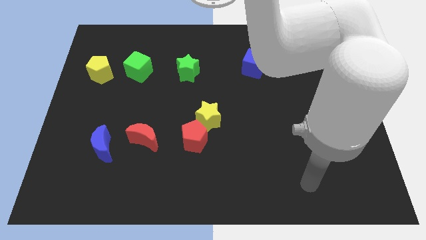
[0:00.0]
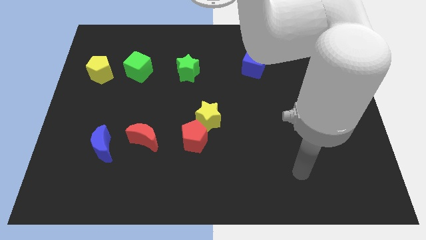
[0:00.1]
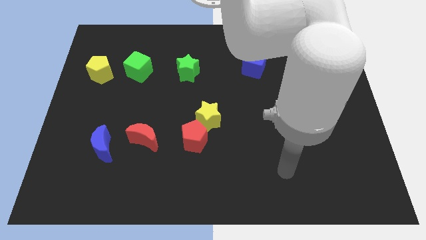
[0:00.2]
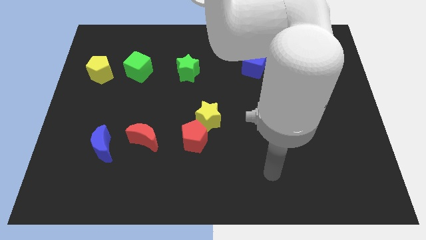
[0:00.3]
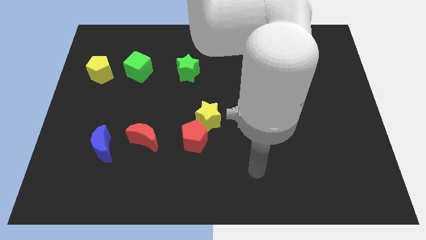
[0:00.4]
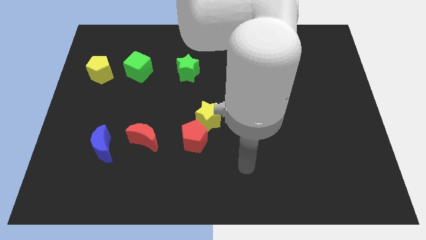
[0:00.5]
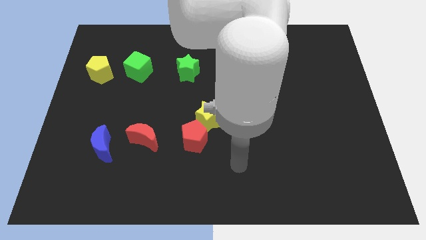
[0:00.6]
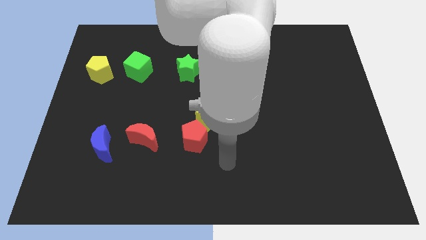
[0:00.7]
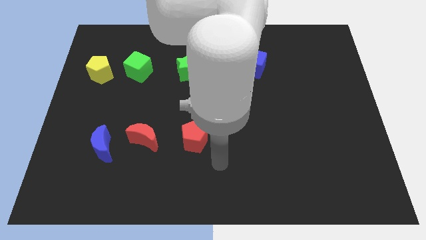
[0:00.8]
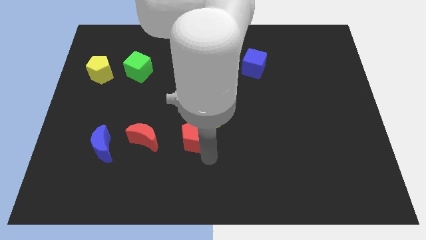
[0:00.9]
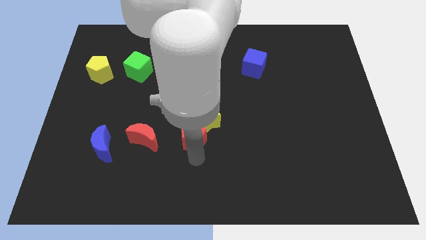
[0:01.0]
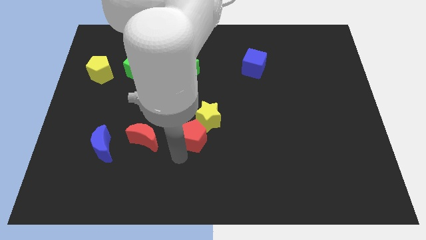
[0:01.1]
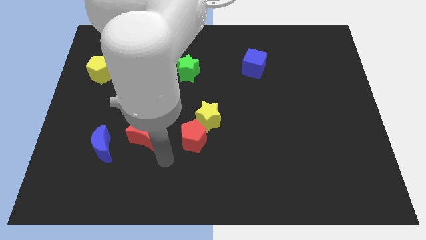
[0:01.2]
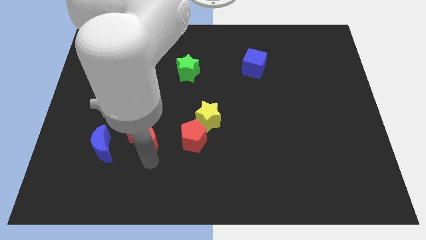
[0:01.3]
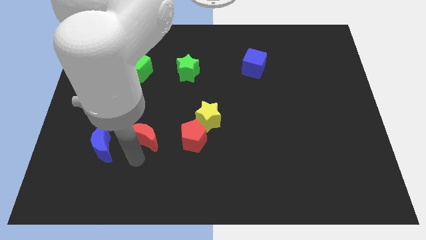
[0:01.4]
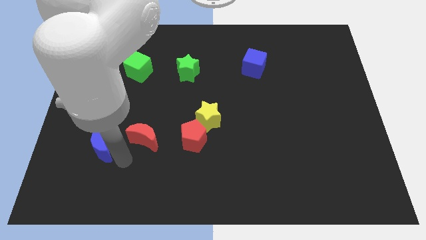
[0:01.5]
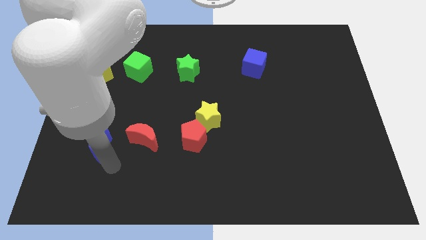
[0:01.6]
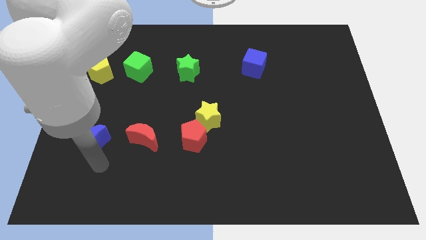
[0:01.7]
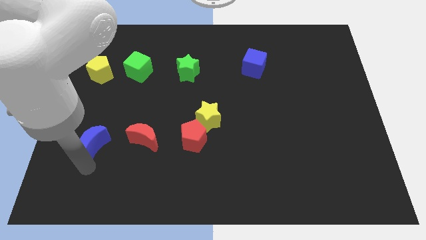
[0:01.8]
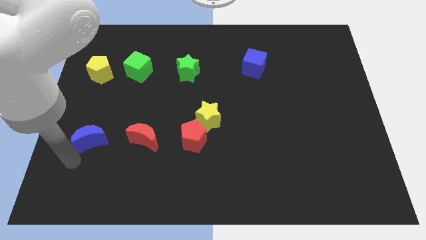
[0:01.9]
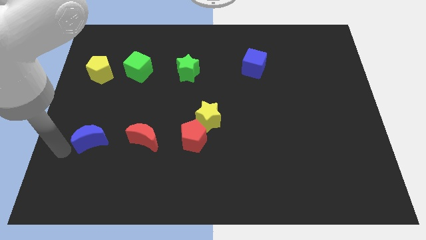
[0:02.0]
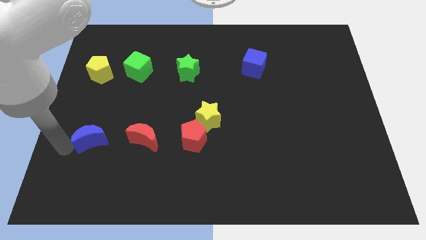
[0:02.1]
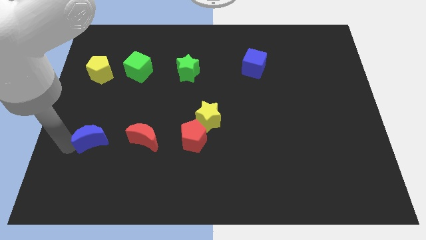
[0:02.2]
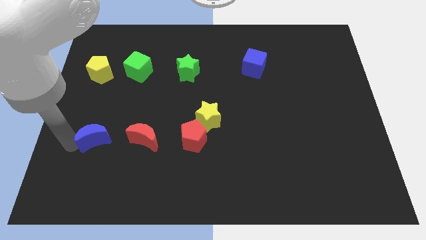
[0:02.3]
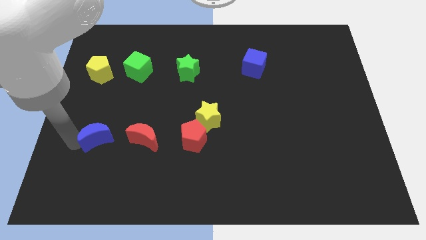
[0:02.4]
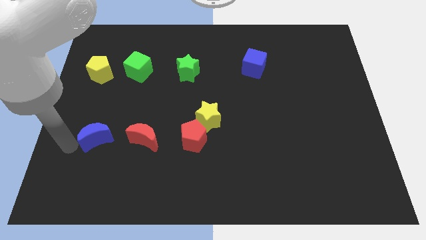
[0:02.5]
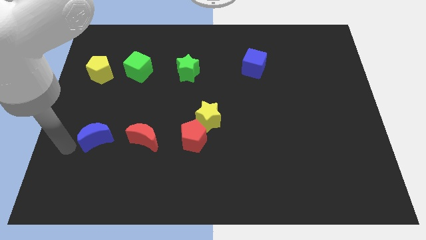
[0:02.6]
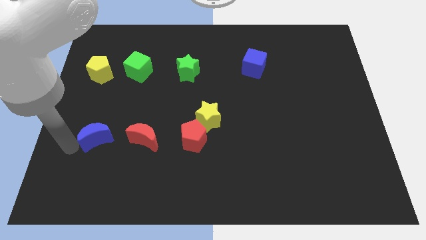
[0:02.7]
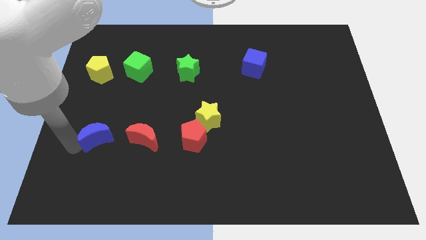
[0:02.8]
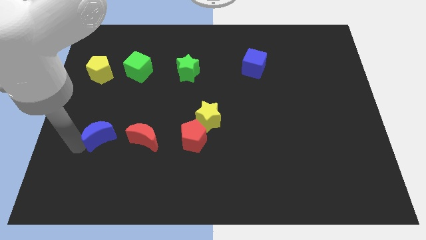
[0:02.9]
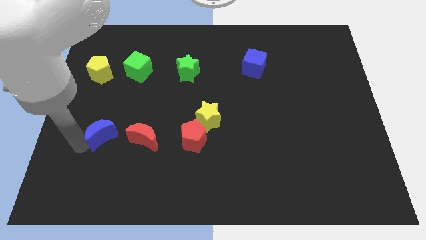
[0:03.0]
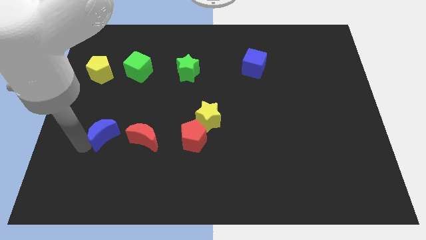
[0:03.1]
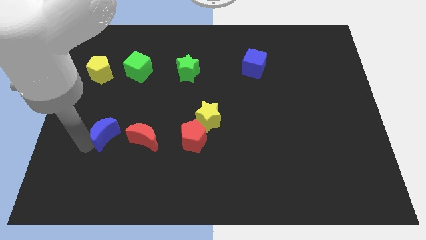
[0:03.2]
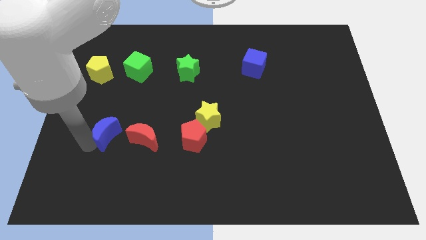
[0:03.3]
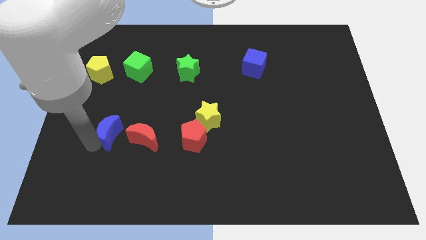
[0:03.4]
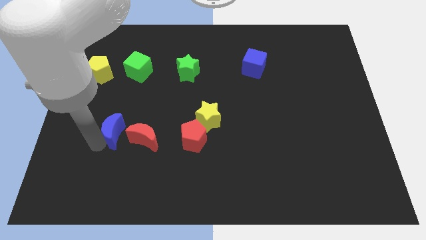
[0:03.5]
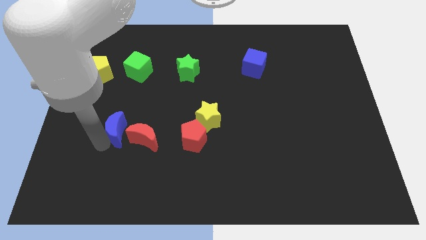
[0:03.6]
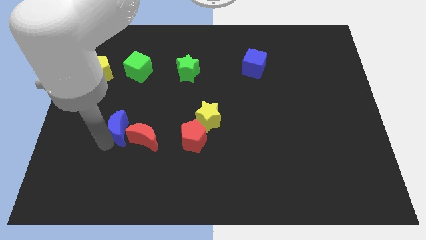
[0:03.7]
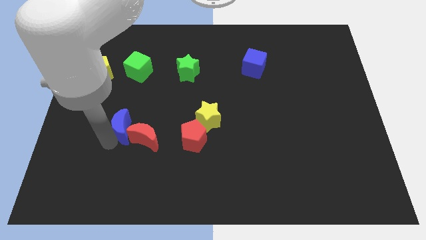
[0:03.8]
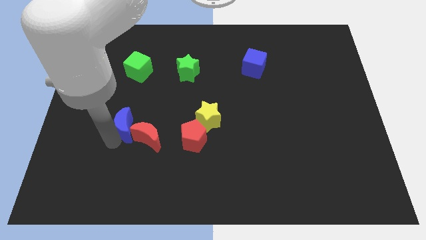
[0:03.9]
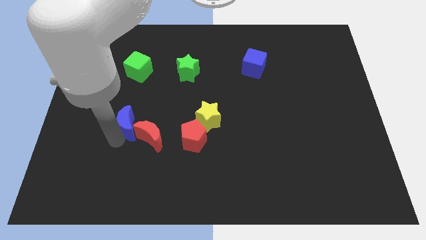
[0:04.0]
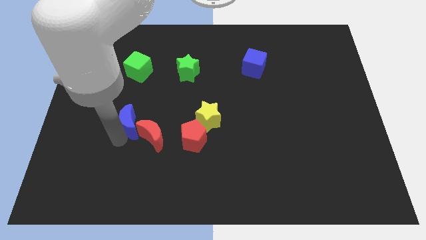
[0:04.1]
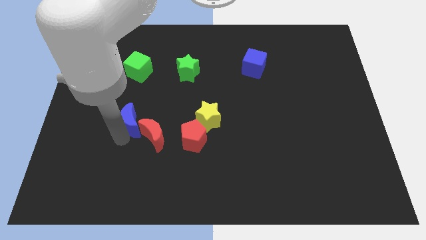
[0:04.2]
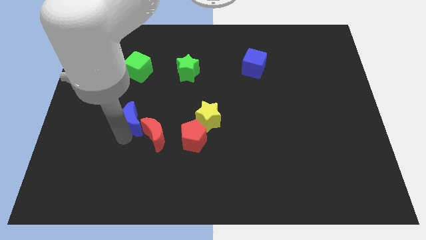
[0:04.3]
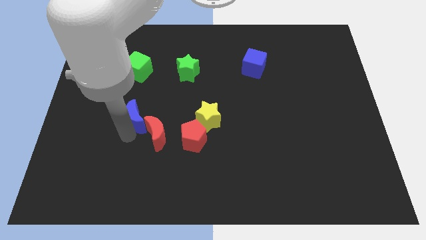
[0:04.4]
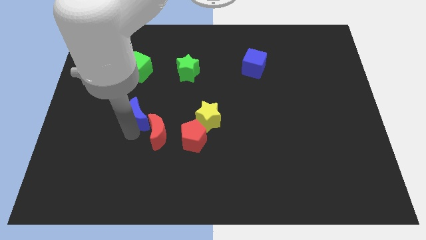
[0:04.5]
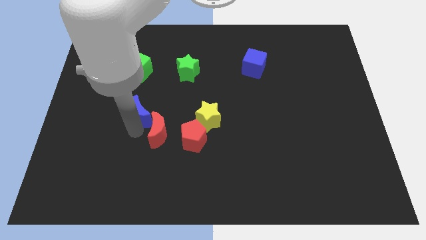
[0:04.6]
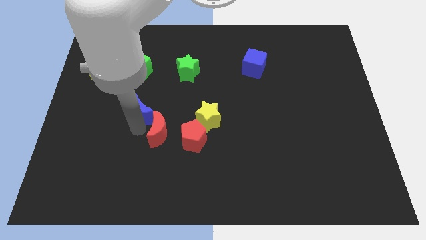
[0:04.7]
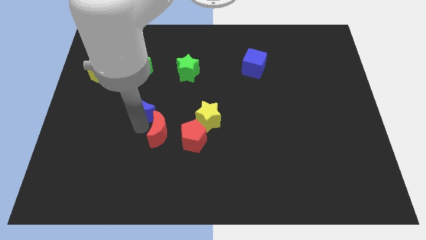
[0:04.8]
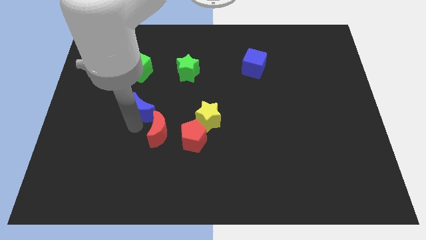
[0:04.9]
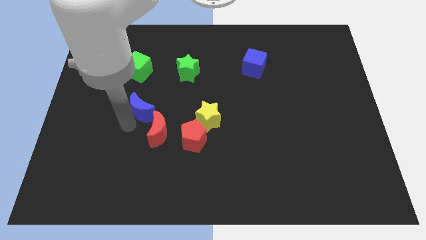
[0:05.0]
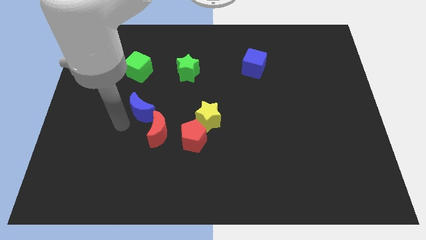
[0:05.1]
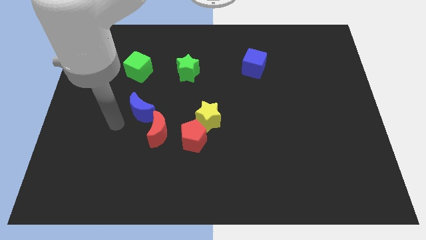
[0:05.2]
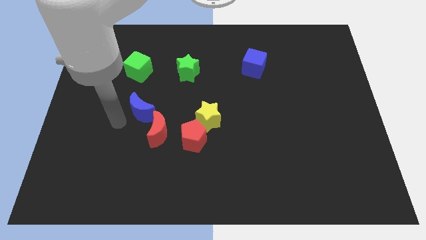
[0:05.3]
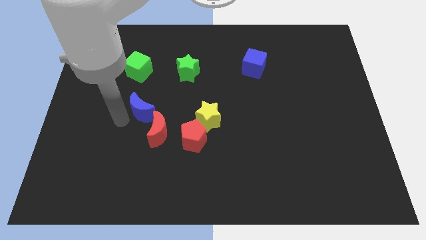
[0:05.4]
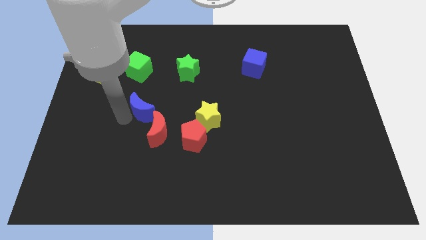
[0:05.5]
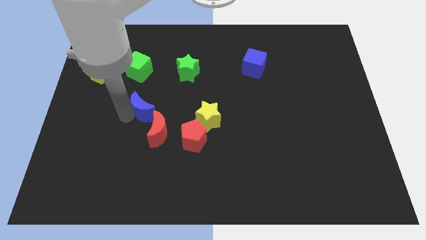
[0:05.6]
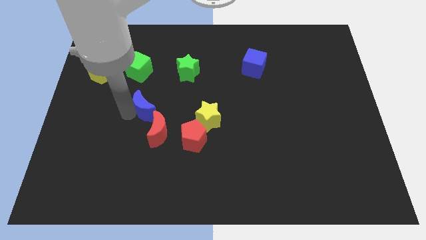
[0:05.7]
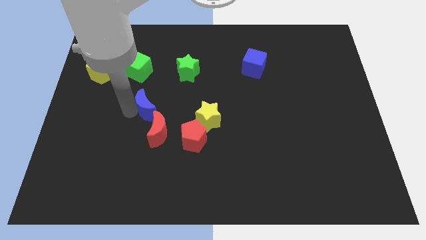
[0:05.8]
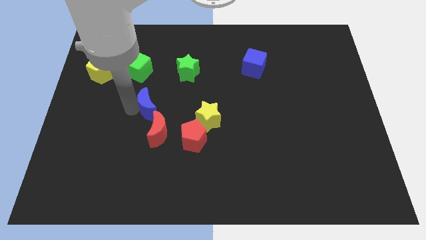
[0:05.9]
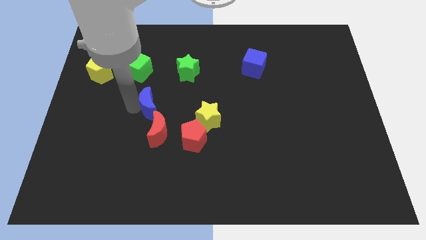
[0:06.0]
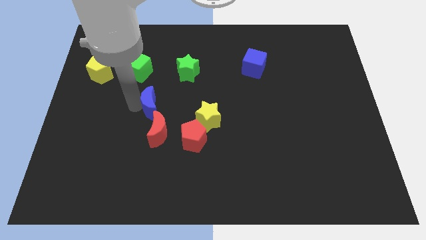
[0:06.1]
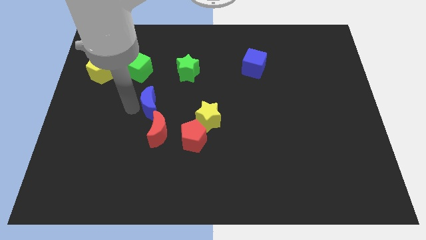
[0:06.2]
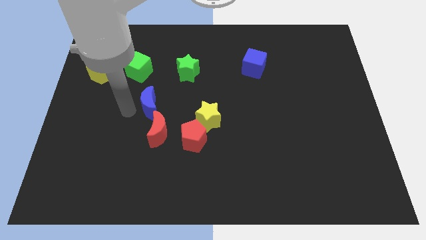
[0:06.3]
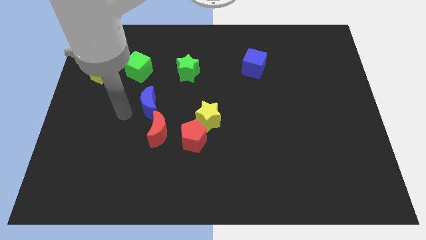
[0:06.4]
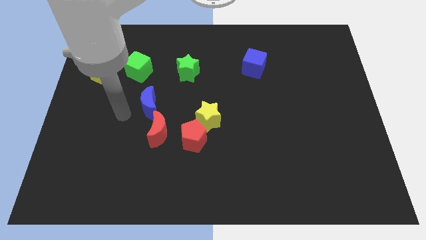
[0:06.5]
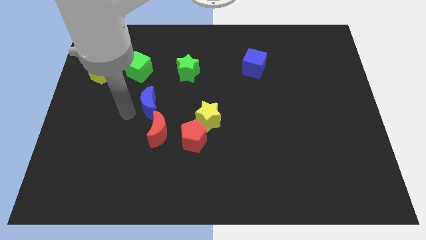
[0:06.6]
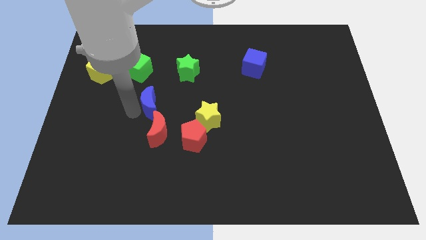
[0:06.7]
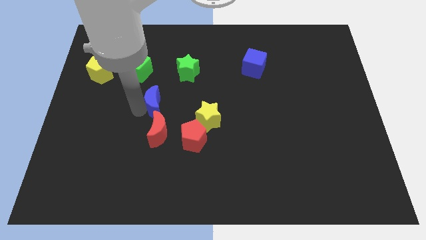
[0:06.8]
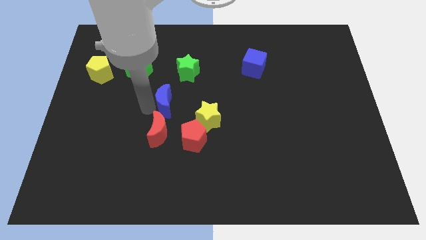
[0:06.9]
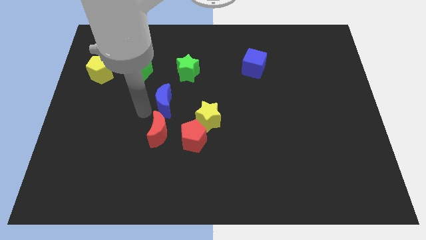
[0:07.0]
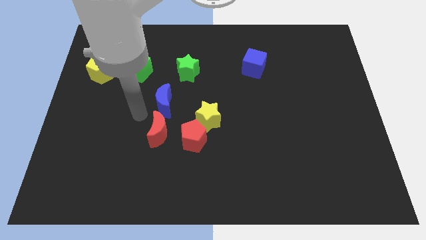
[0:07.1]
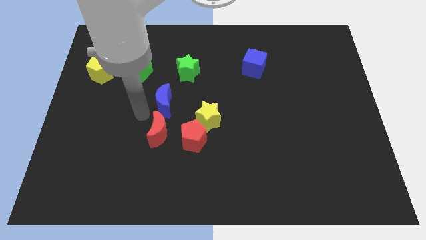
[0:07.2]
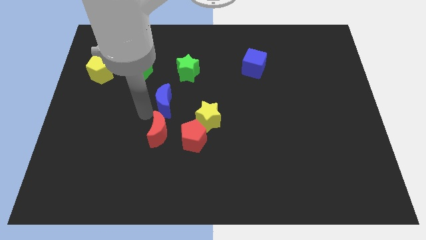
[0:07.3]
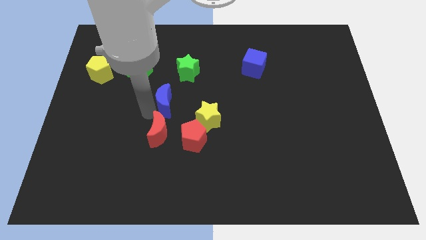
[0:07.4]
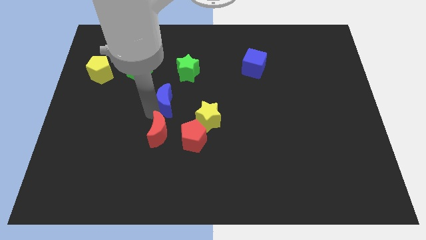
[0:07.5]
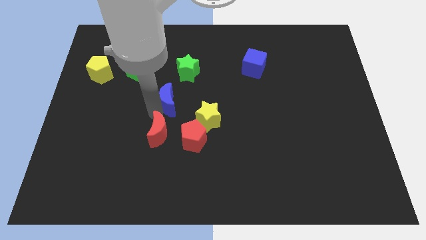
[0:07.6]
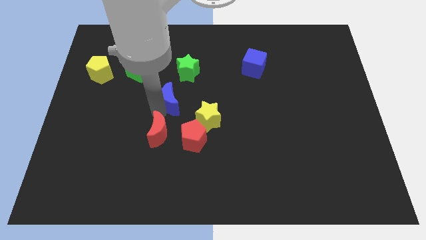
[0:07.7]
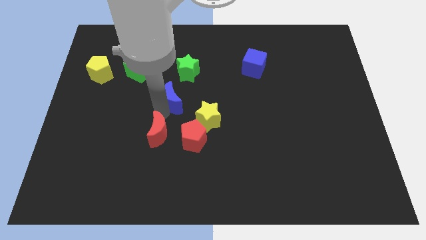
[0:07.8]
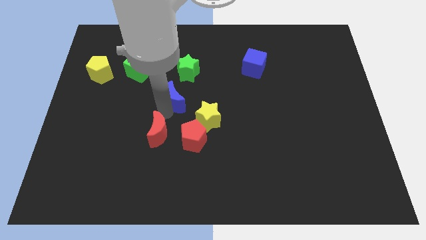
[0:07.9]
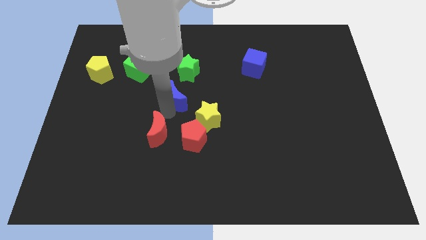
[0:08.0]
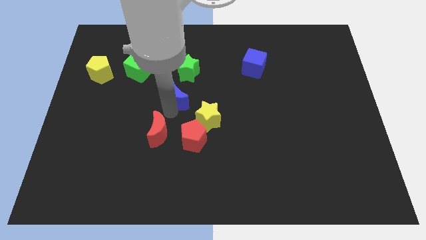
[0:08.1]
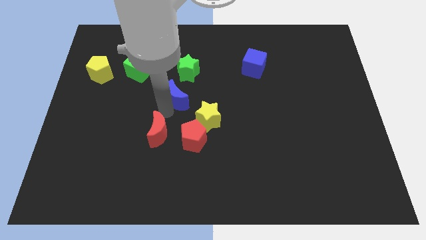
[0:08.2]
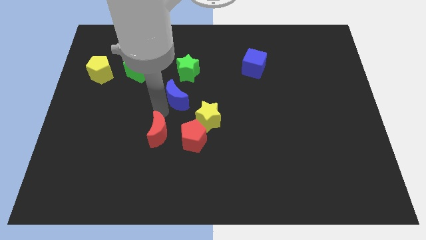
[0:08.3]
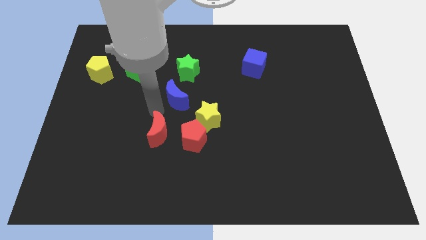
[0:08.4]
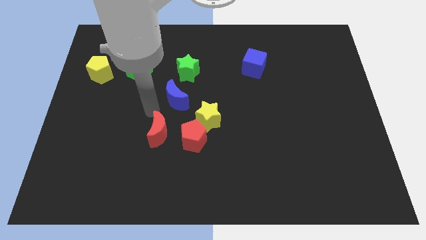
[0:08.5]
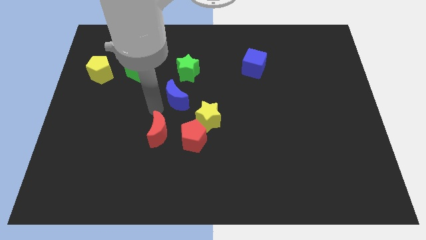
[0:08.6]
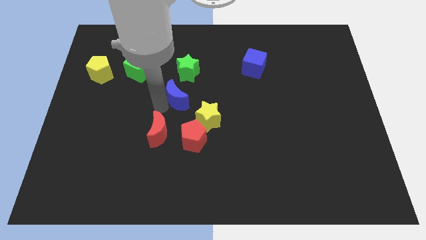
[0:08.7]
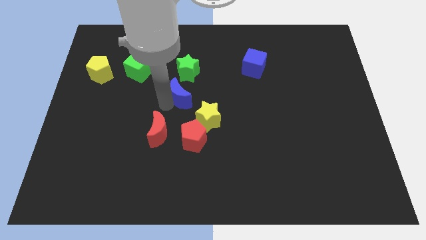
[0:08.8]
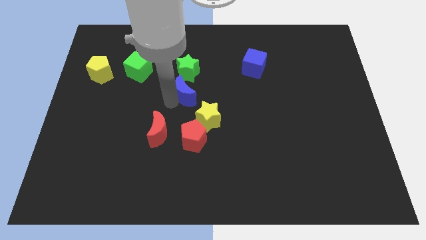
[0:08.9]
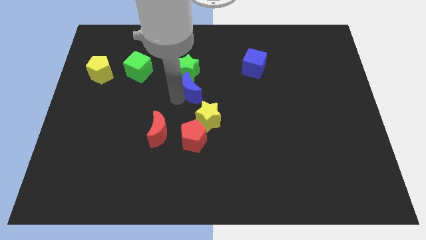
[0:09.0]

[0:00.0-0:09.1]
put the blue moon to the bottom right side of the green star
